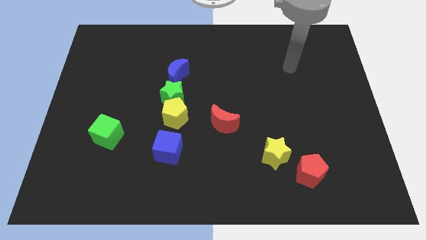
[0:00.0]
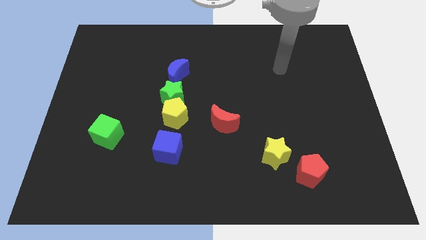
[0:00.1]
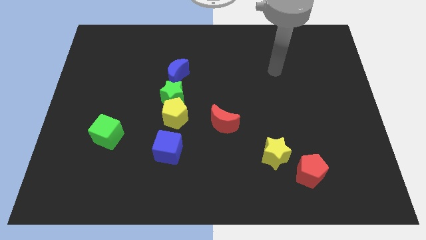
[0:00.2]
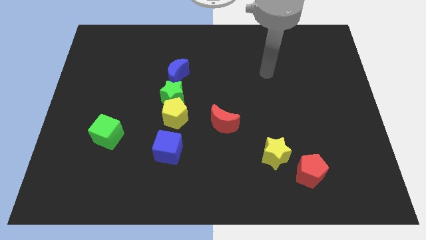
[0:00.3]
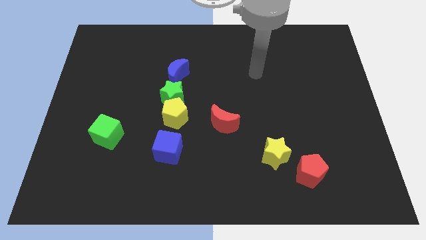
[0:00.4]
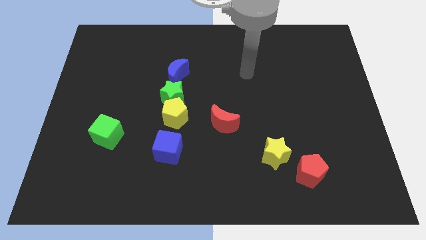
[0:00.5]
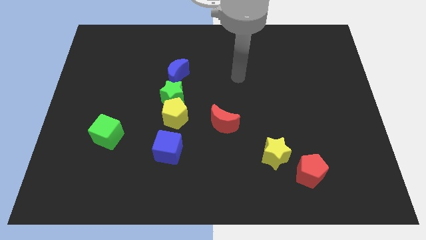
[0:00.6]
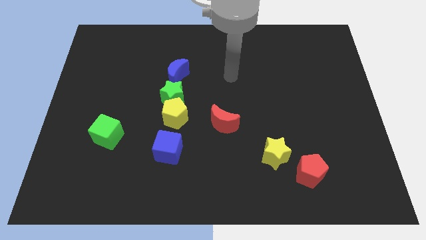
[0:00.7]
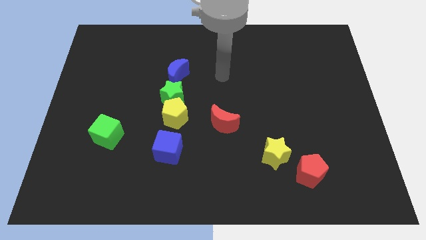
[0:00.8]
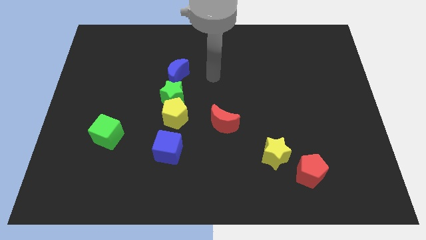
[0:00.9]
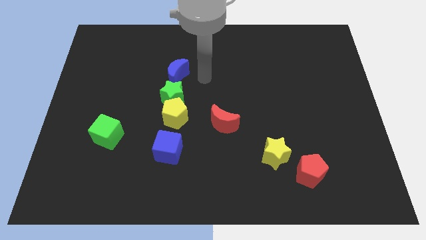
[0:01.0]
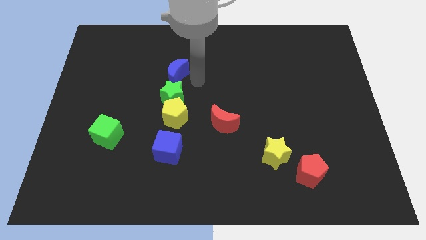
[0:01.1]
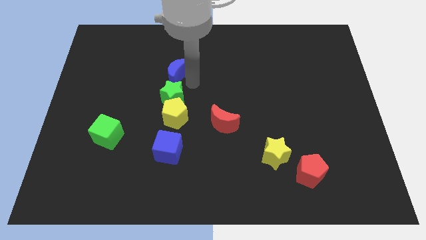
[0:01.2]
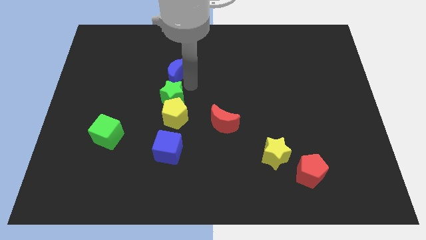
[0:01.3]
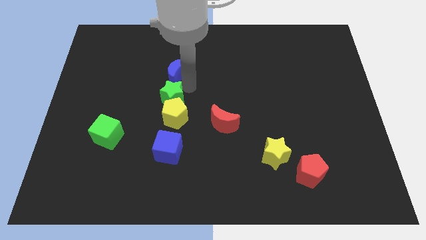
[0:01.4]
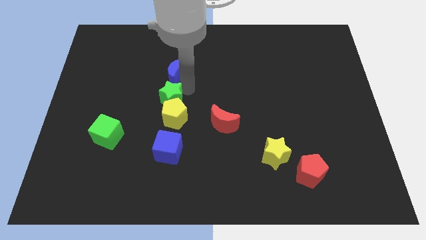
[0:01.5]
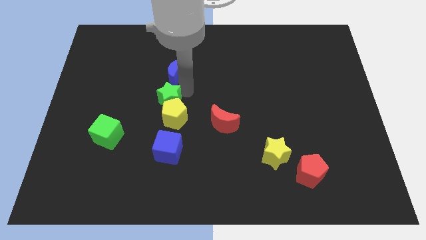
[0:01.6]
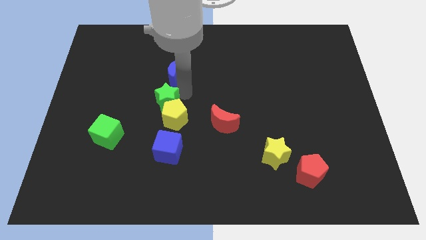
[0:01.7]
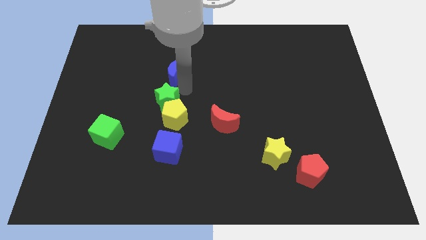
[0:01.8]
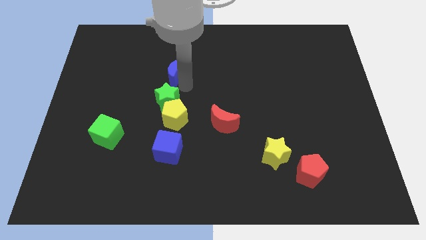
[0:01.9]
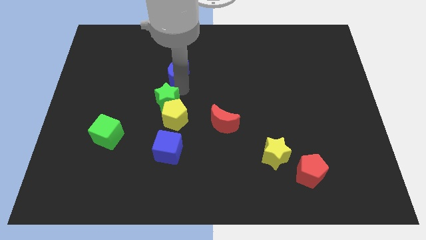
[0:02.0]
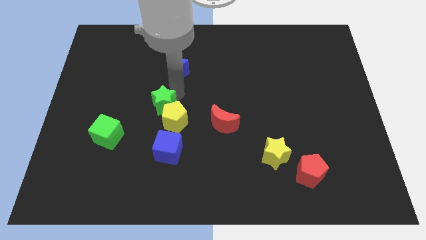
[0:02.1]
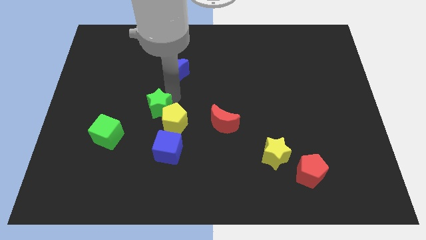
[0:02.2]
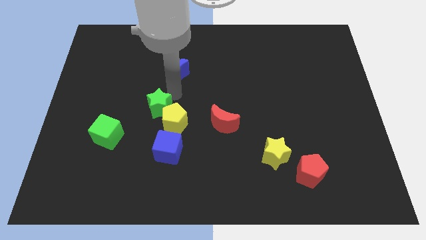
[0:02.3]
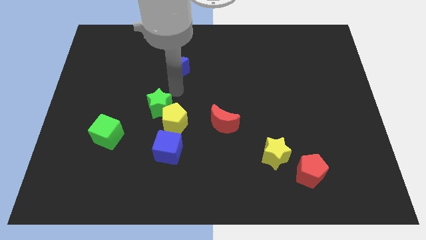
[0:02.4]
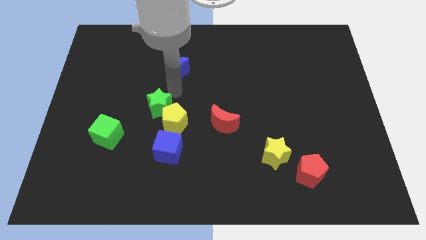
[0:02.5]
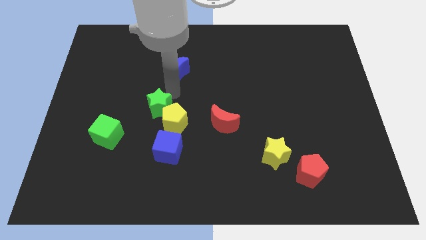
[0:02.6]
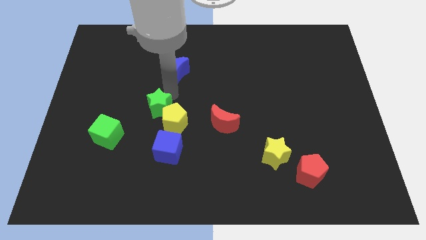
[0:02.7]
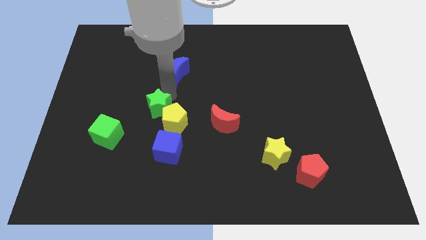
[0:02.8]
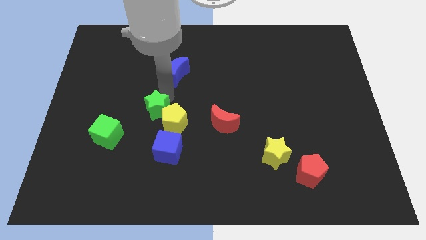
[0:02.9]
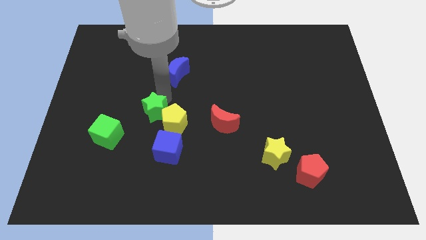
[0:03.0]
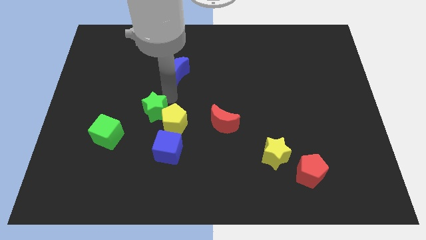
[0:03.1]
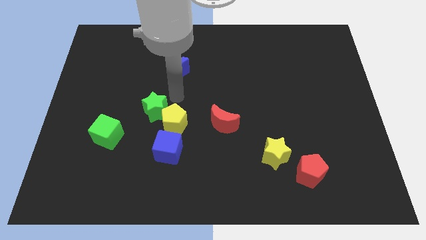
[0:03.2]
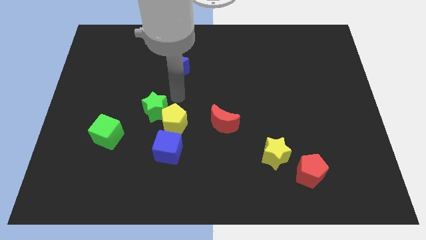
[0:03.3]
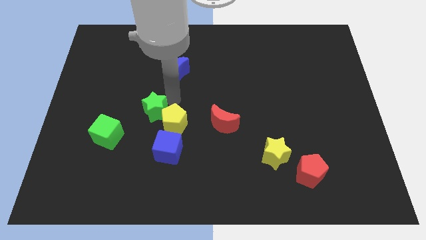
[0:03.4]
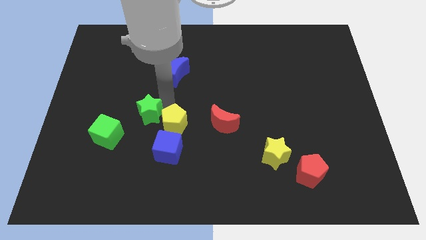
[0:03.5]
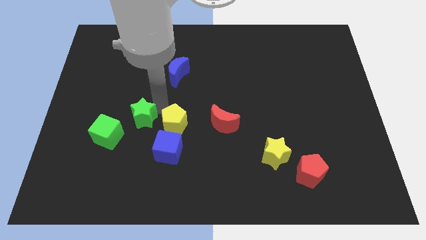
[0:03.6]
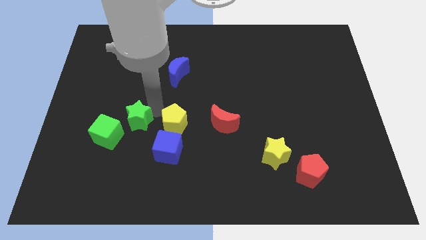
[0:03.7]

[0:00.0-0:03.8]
separate the green star from the yellow pentagon and blue moon

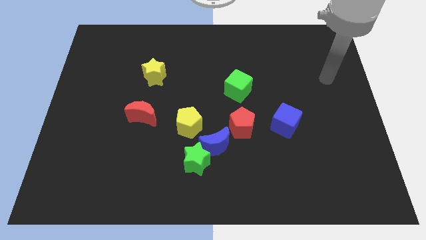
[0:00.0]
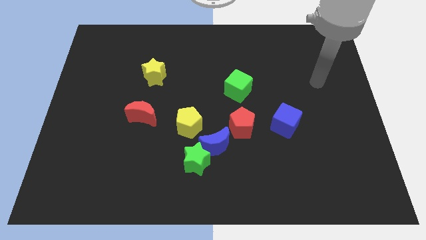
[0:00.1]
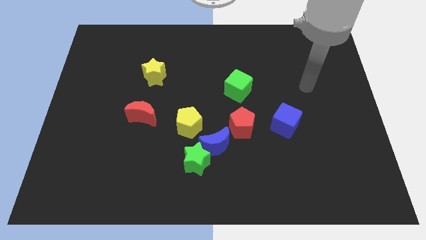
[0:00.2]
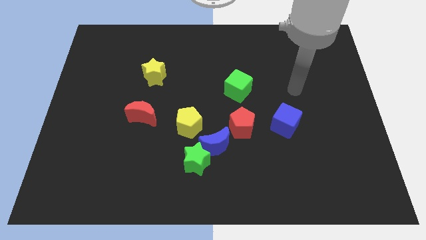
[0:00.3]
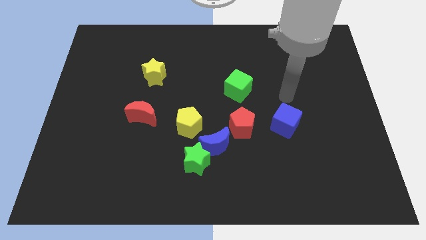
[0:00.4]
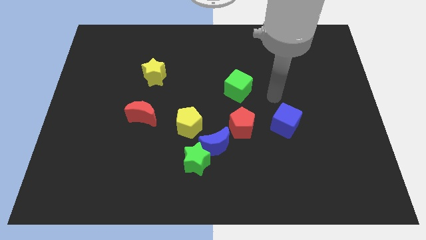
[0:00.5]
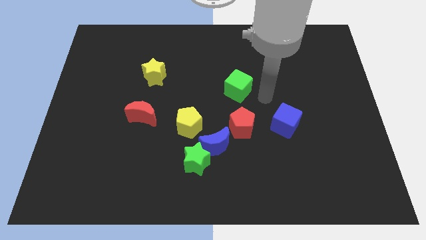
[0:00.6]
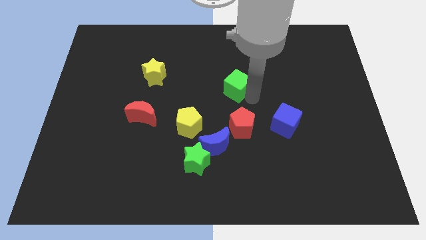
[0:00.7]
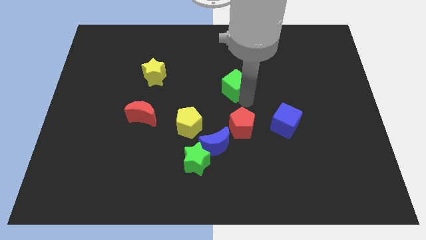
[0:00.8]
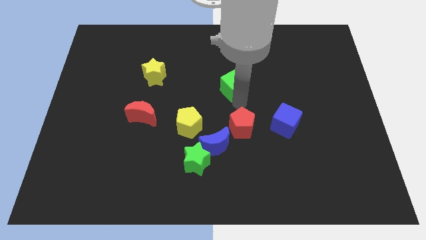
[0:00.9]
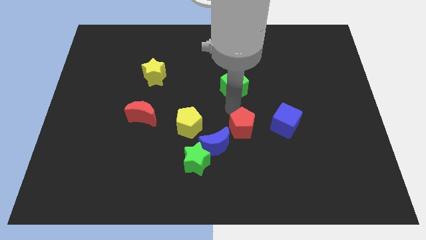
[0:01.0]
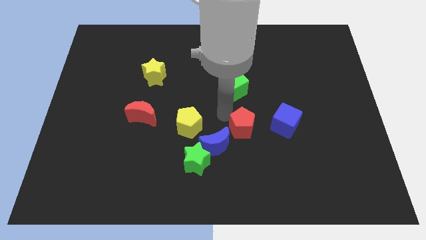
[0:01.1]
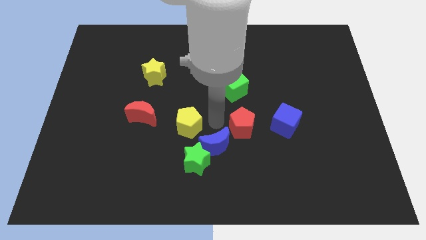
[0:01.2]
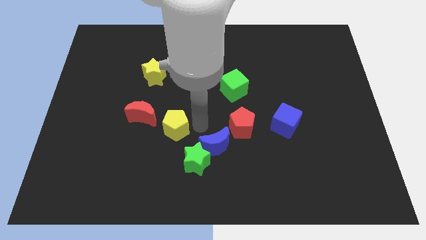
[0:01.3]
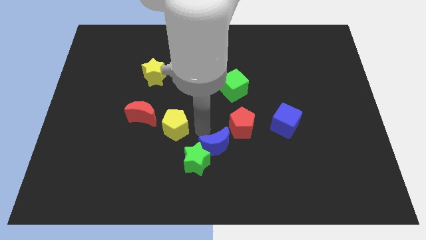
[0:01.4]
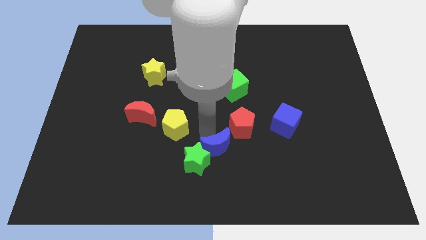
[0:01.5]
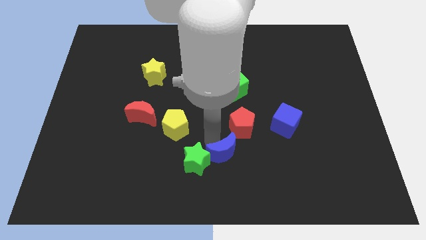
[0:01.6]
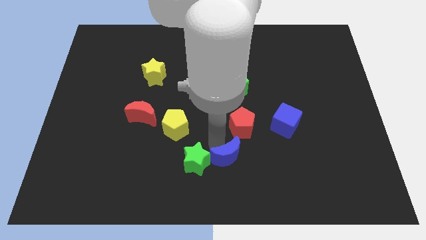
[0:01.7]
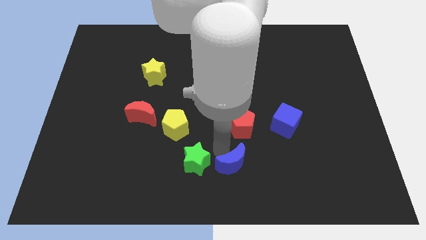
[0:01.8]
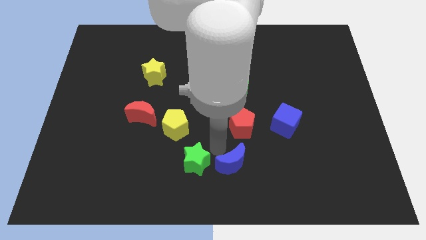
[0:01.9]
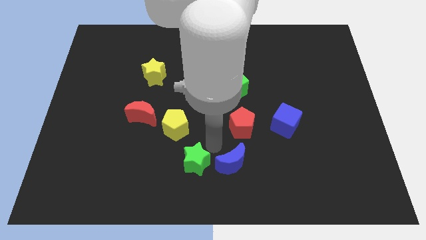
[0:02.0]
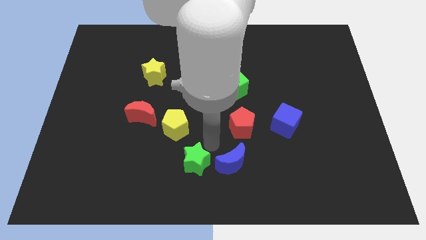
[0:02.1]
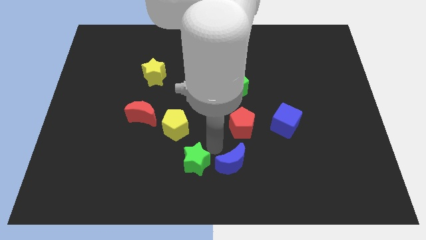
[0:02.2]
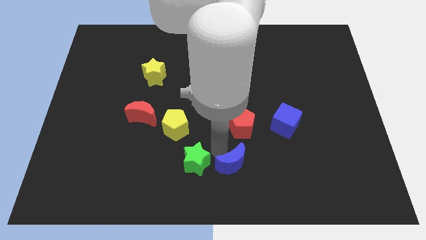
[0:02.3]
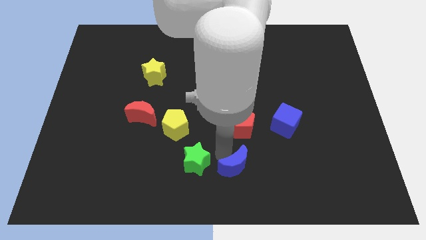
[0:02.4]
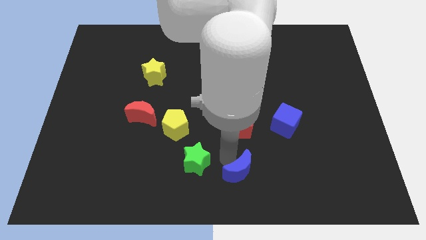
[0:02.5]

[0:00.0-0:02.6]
move the blue moon away from the clump

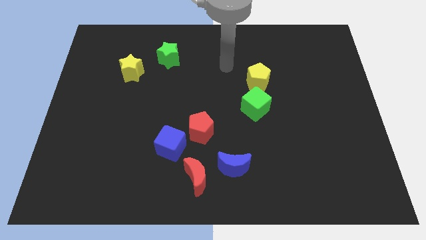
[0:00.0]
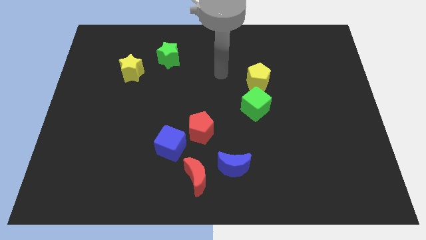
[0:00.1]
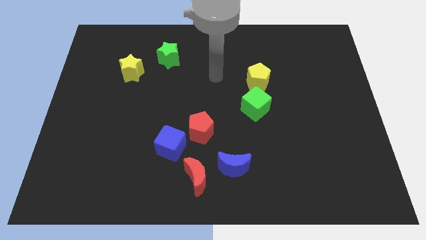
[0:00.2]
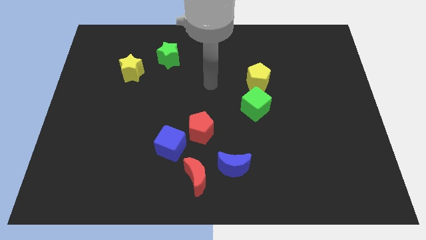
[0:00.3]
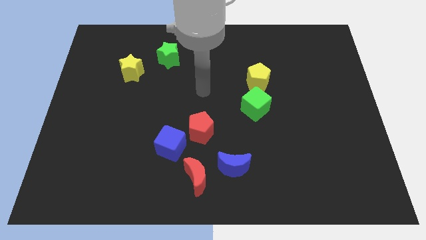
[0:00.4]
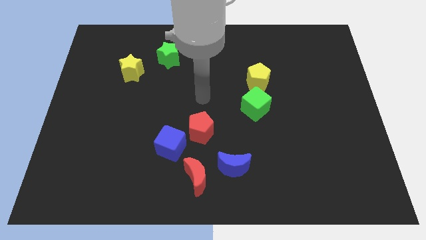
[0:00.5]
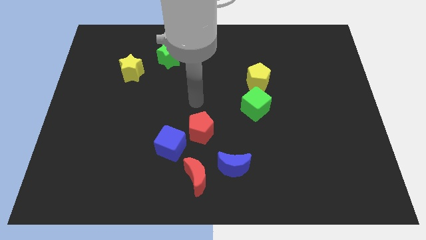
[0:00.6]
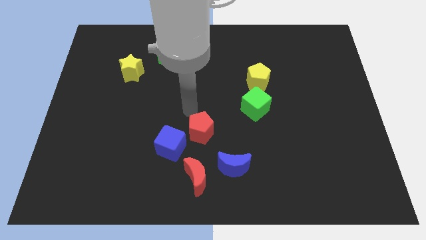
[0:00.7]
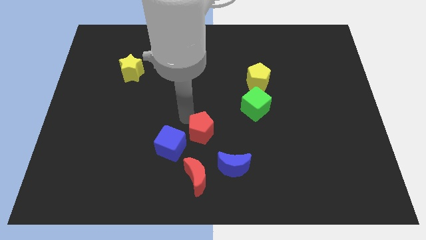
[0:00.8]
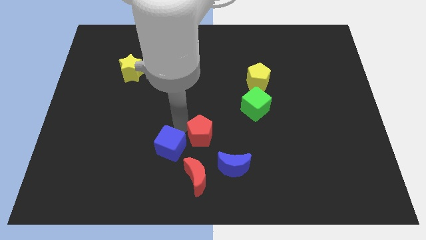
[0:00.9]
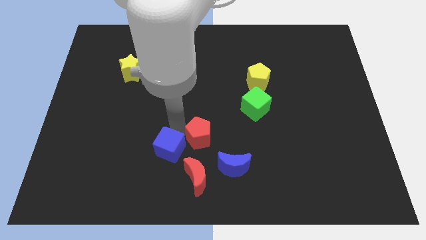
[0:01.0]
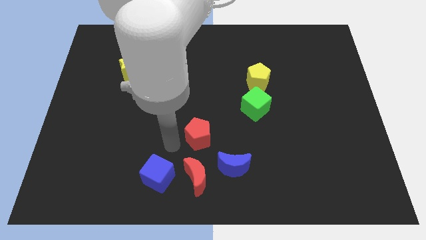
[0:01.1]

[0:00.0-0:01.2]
move the red pentagon away from the blue cube

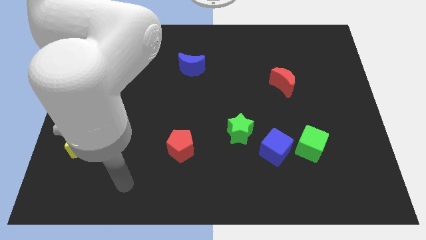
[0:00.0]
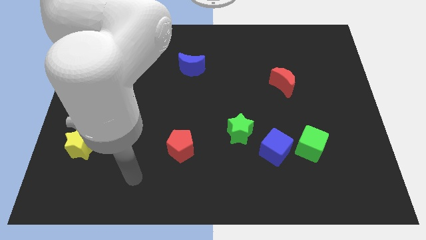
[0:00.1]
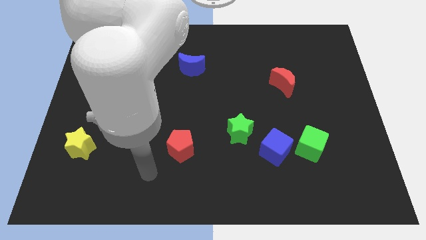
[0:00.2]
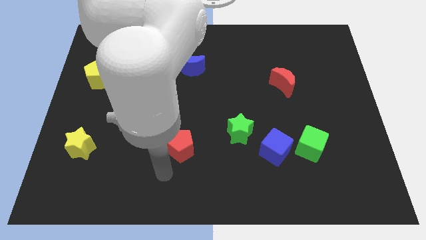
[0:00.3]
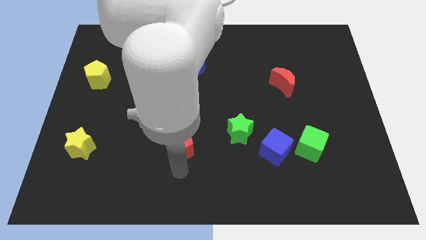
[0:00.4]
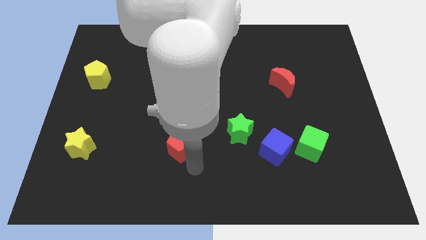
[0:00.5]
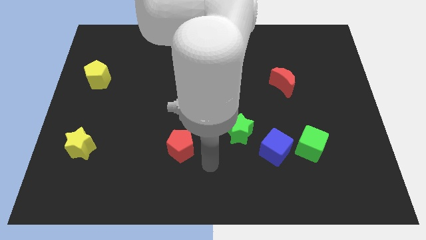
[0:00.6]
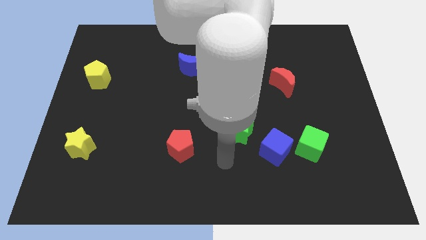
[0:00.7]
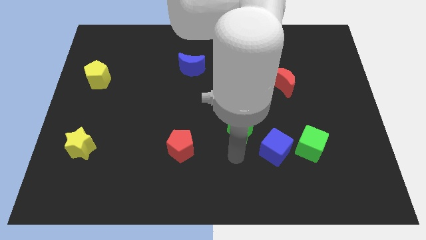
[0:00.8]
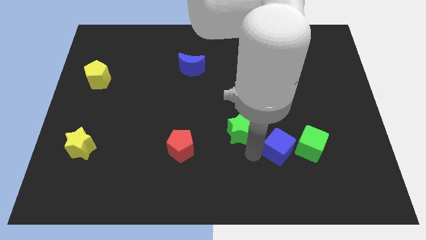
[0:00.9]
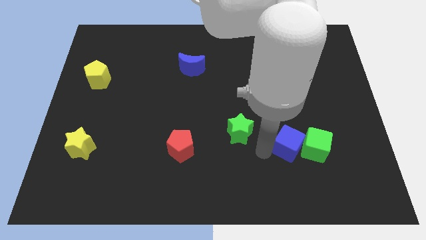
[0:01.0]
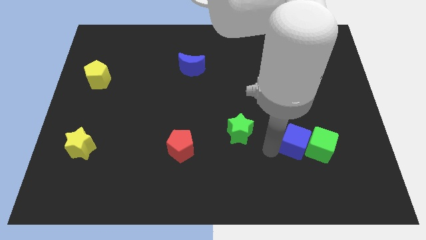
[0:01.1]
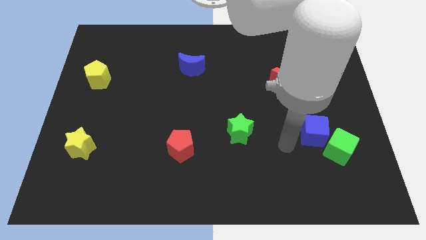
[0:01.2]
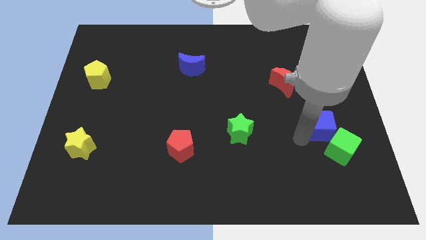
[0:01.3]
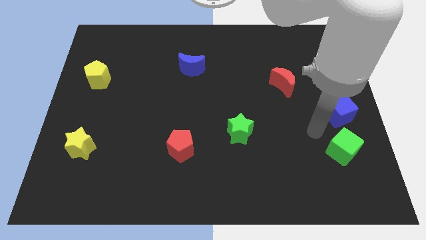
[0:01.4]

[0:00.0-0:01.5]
move the green cube away from the blue cube

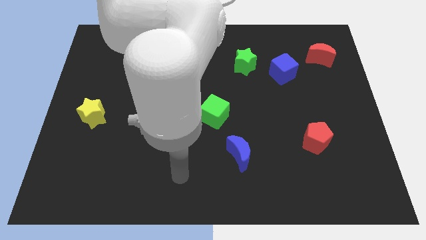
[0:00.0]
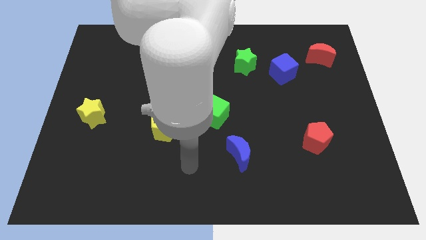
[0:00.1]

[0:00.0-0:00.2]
move the blue cube away from the green star
